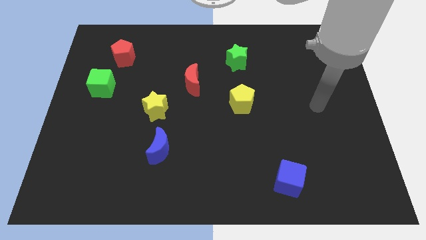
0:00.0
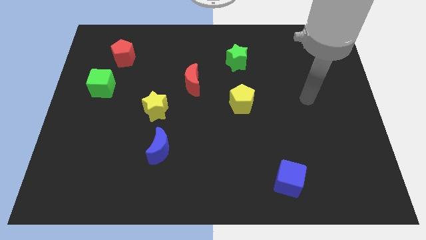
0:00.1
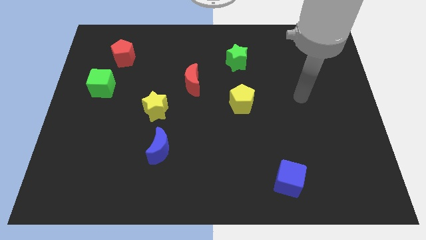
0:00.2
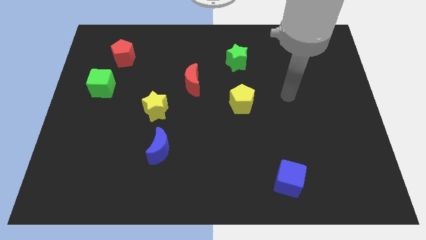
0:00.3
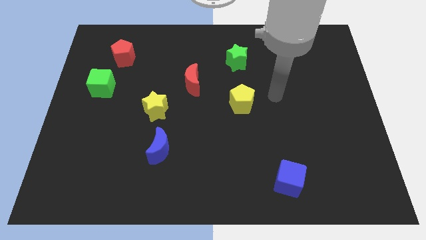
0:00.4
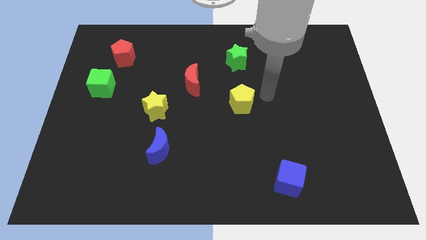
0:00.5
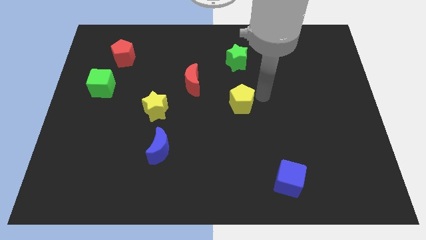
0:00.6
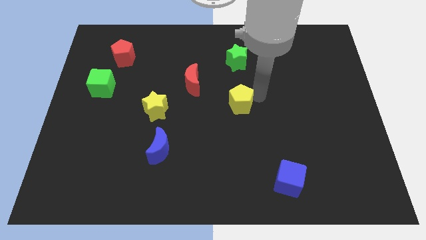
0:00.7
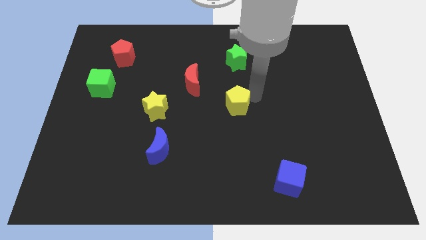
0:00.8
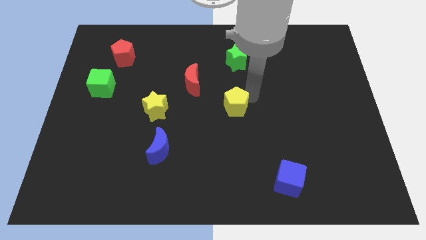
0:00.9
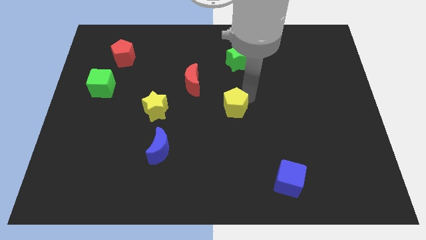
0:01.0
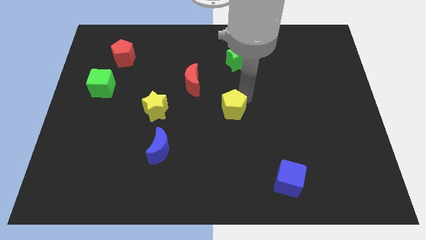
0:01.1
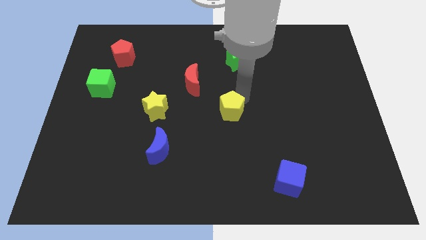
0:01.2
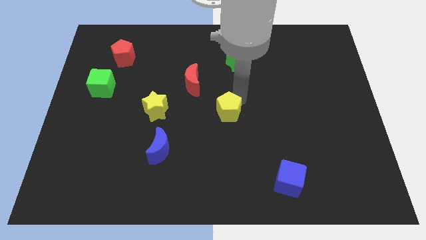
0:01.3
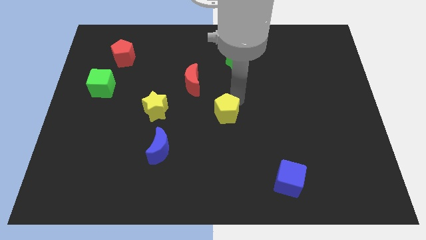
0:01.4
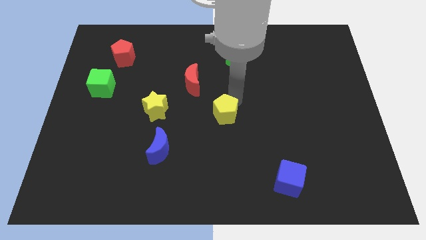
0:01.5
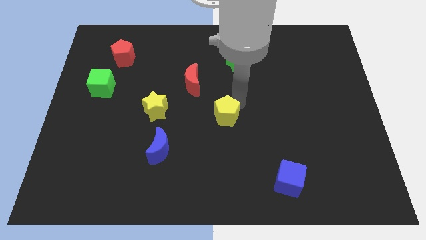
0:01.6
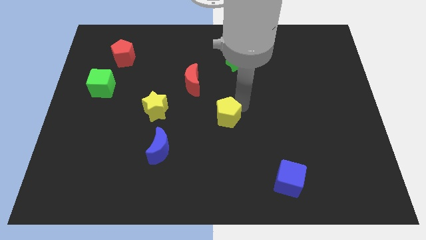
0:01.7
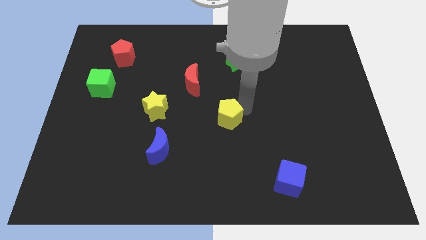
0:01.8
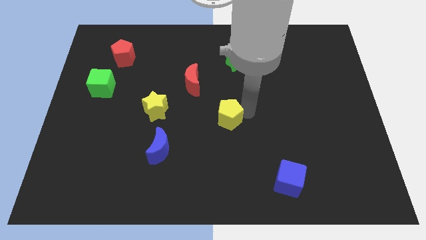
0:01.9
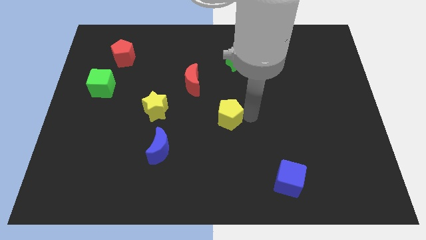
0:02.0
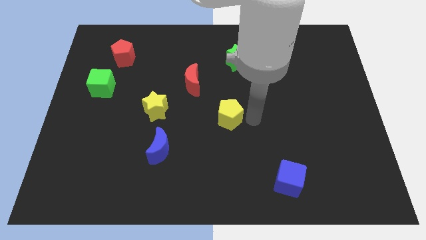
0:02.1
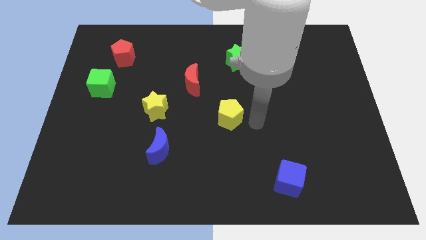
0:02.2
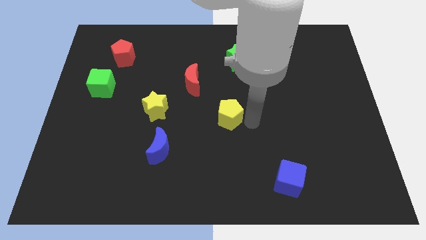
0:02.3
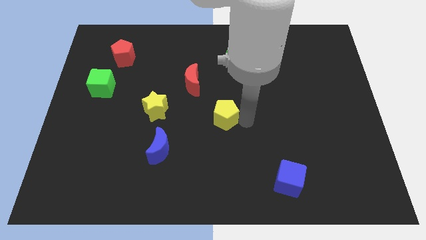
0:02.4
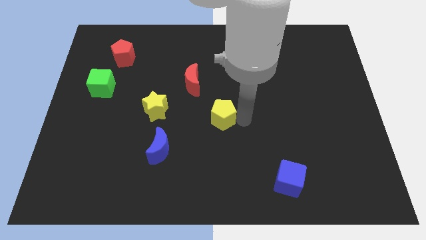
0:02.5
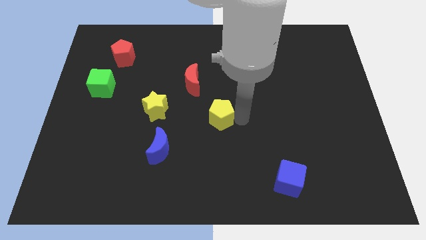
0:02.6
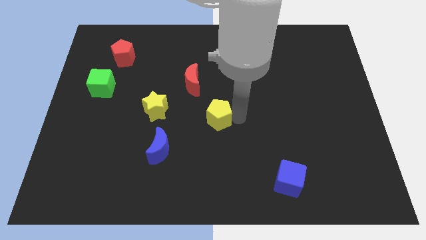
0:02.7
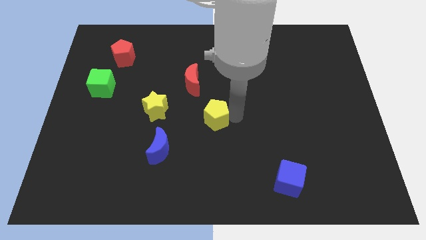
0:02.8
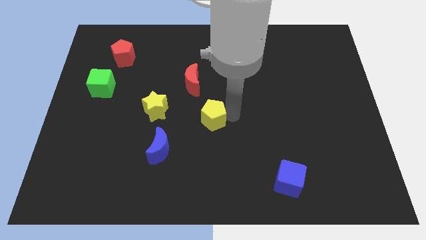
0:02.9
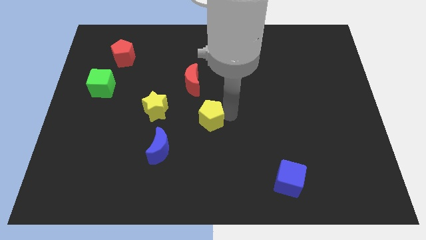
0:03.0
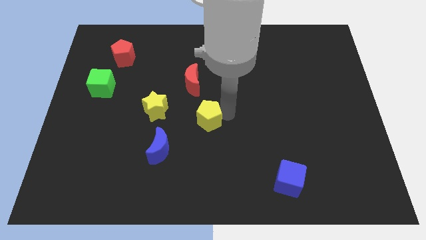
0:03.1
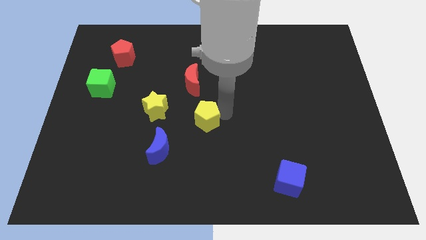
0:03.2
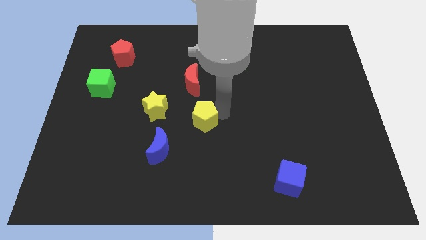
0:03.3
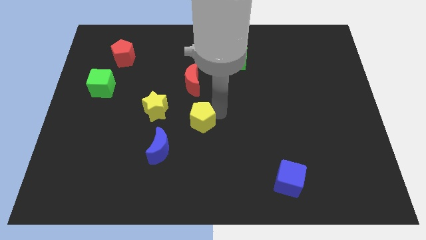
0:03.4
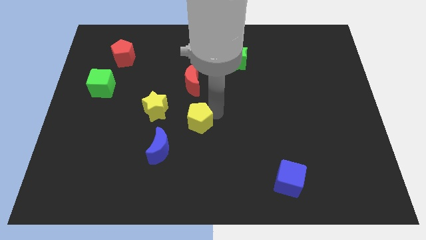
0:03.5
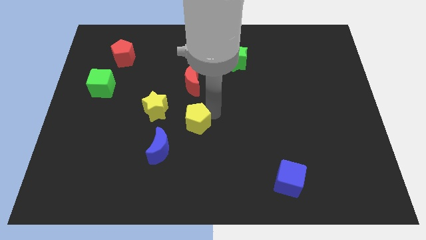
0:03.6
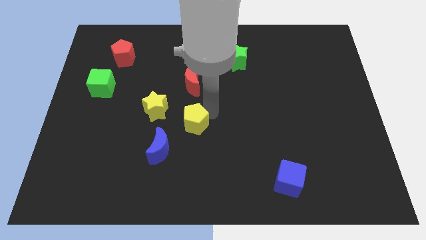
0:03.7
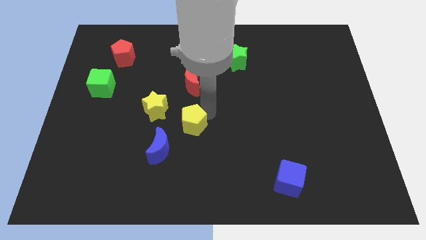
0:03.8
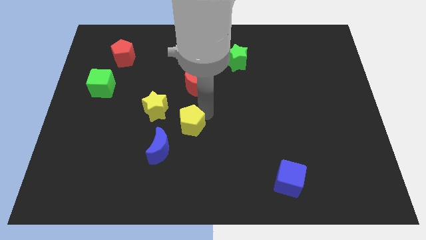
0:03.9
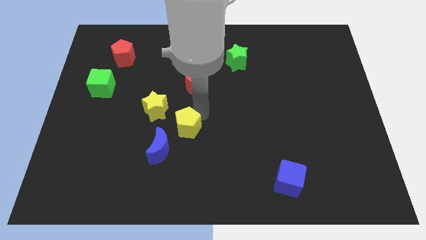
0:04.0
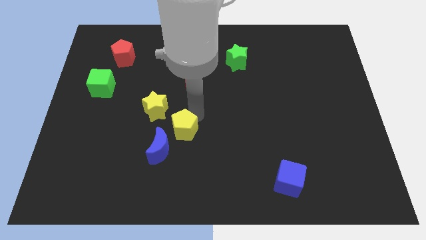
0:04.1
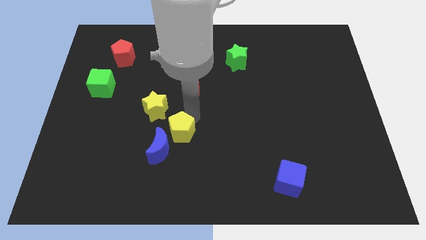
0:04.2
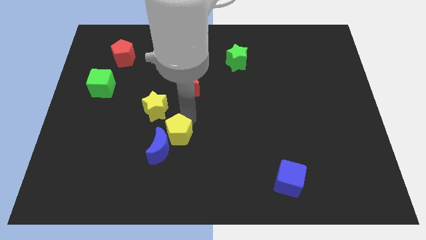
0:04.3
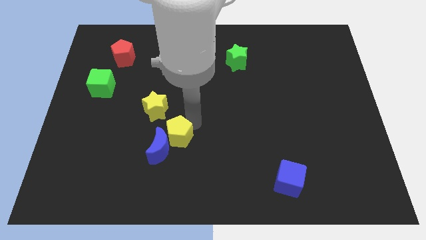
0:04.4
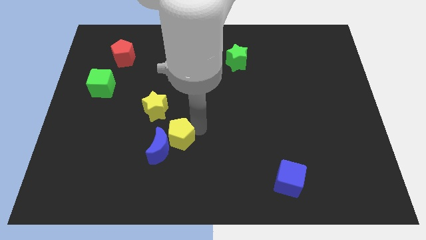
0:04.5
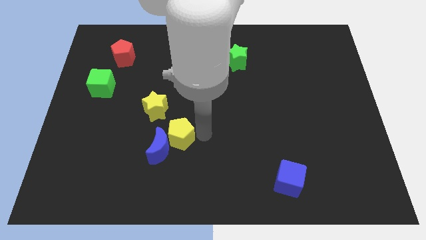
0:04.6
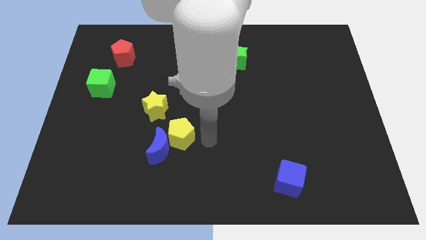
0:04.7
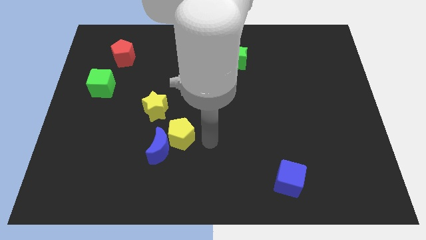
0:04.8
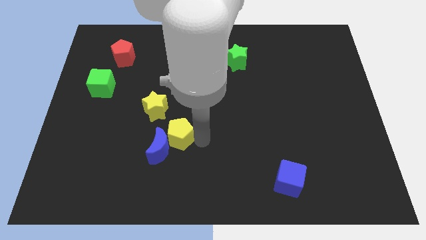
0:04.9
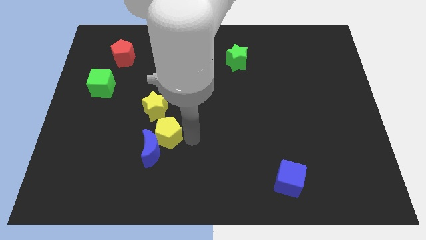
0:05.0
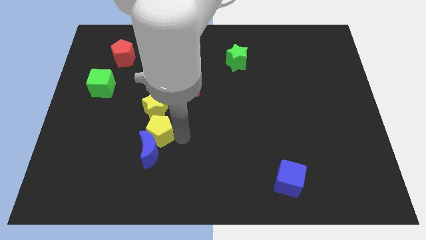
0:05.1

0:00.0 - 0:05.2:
move the yellow pentagon to the top left of the blue moon

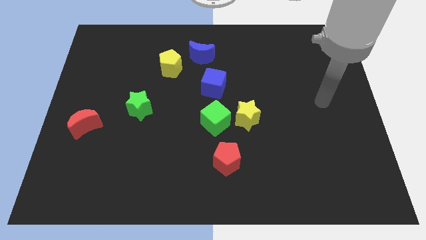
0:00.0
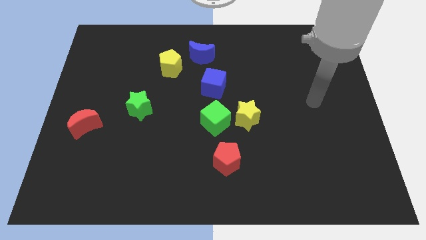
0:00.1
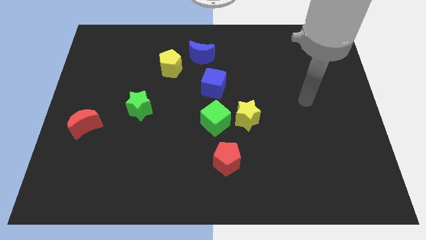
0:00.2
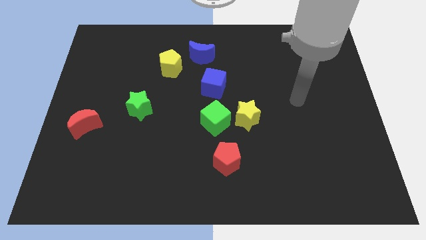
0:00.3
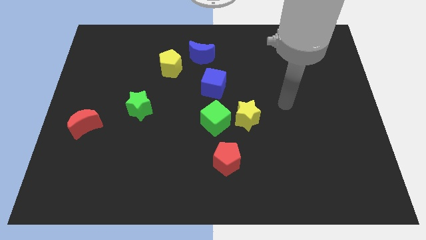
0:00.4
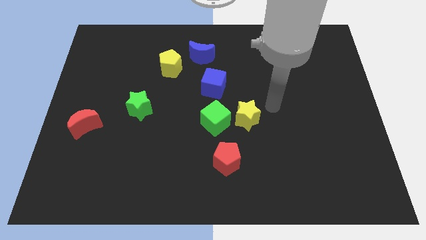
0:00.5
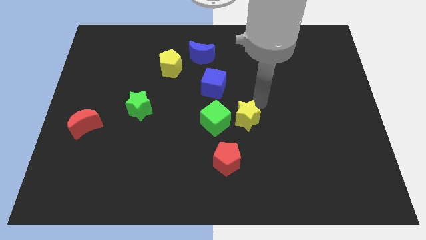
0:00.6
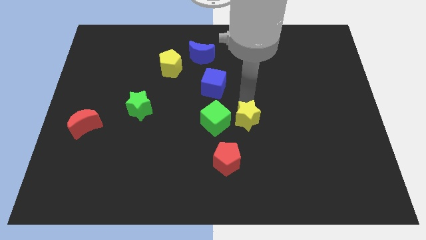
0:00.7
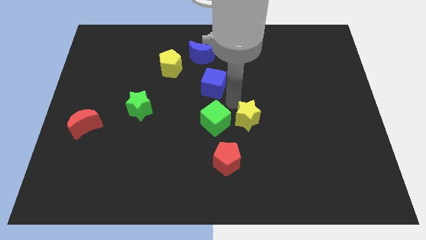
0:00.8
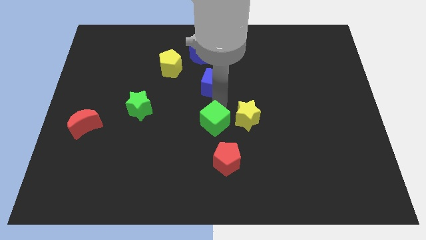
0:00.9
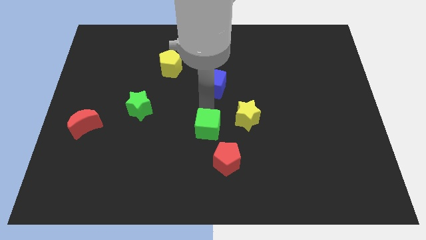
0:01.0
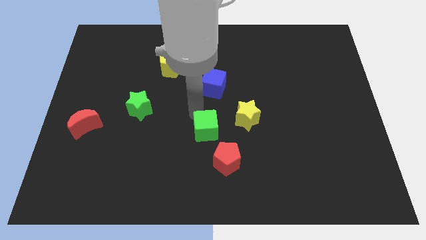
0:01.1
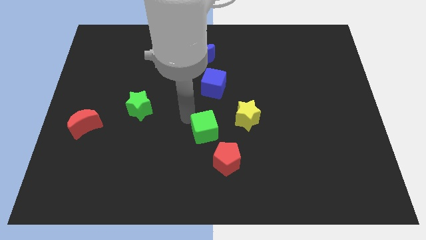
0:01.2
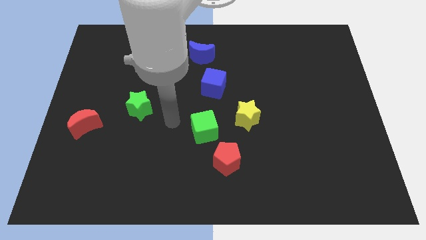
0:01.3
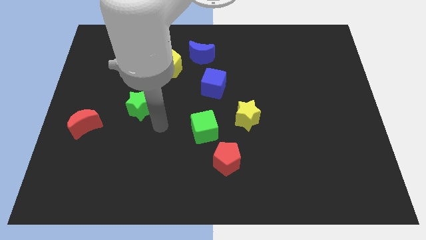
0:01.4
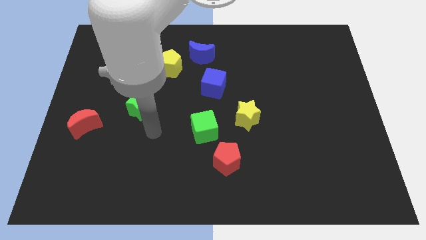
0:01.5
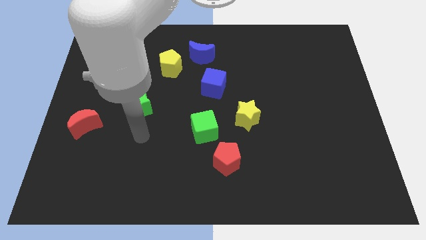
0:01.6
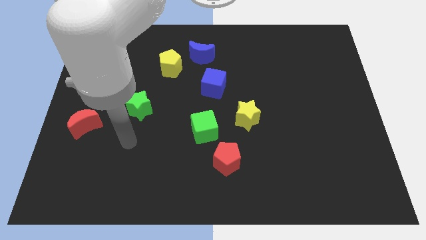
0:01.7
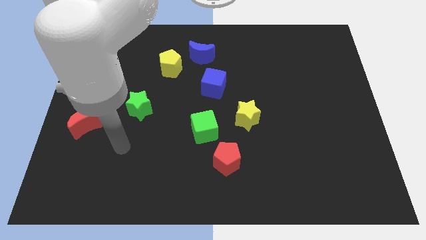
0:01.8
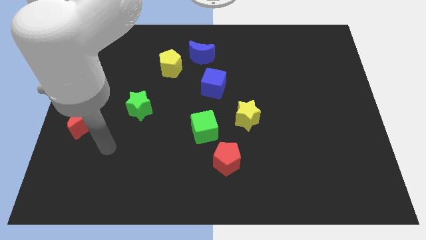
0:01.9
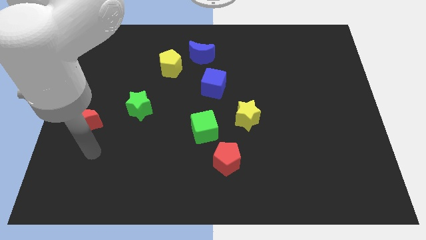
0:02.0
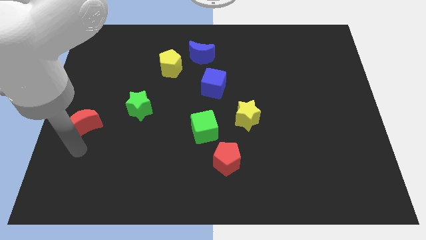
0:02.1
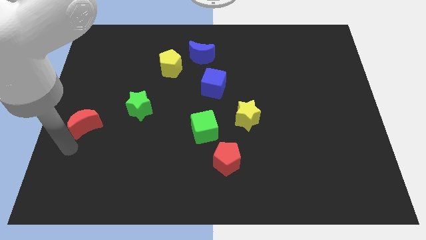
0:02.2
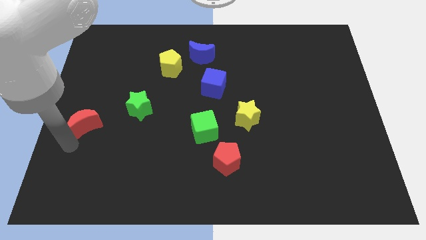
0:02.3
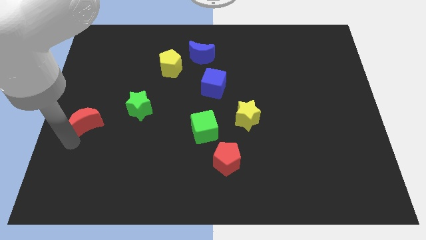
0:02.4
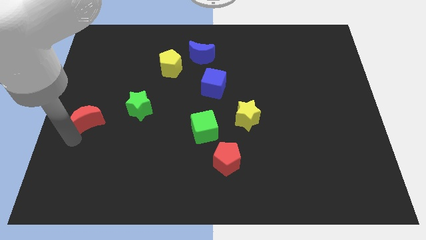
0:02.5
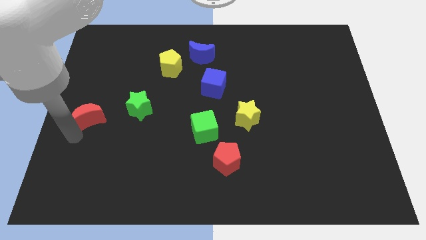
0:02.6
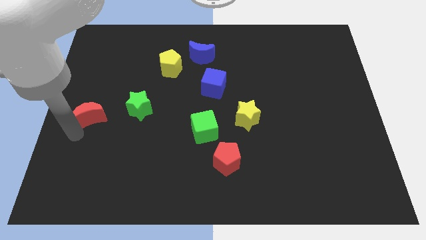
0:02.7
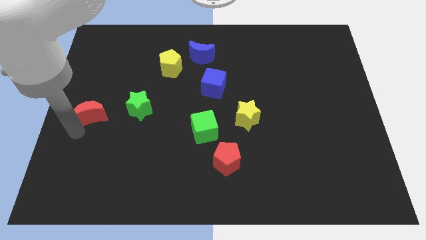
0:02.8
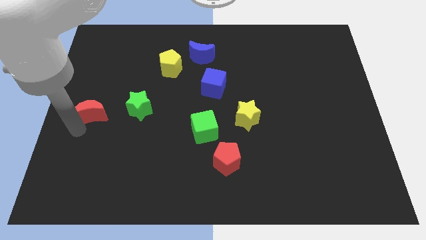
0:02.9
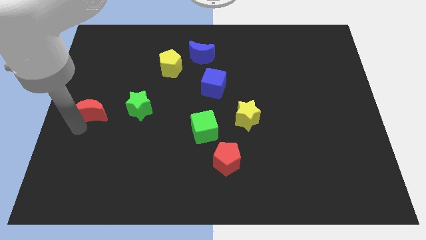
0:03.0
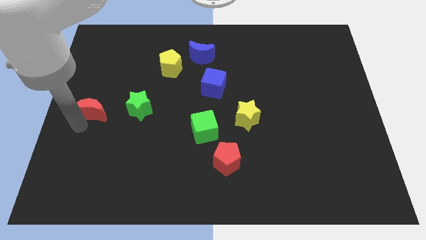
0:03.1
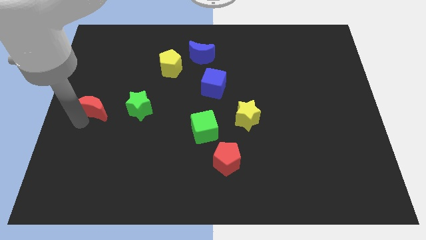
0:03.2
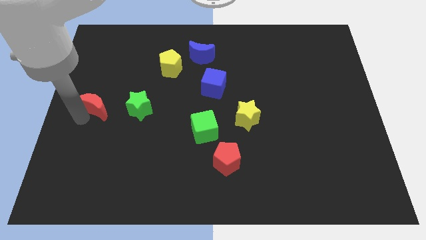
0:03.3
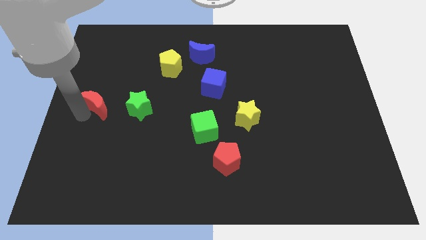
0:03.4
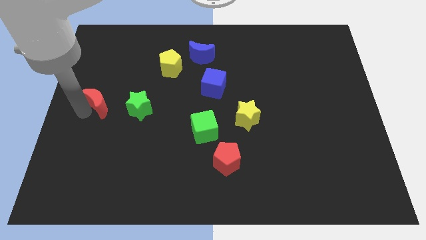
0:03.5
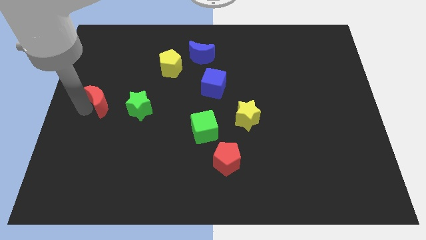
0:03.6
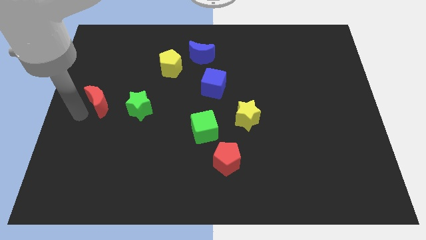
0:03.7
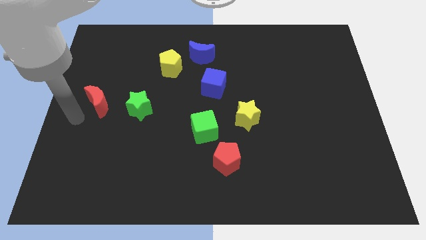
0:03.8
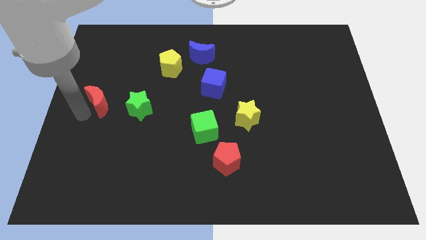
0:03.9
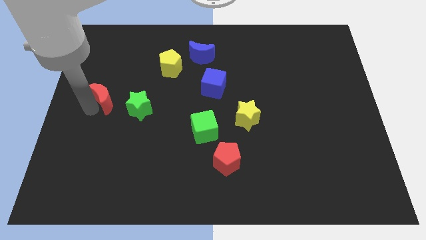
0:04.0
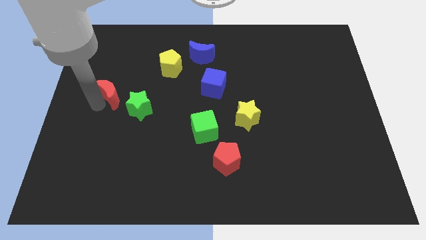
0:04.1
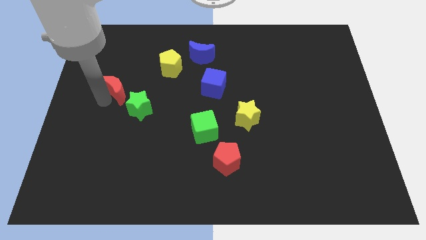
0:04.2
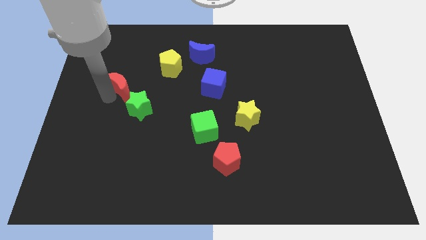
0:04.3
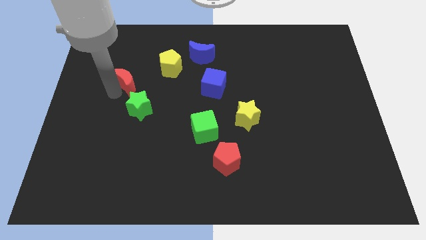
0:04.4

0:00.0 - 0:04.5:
slide the red moon to the top of the green star
